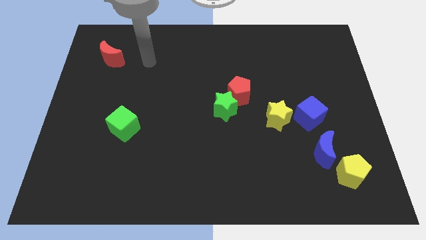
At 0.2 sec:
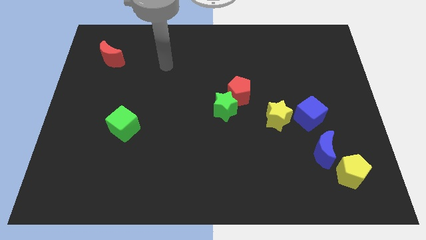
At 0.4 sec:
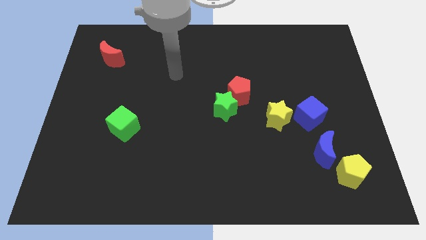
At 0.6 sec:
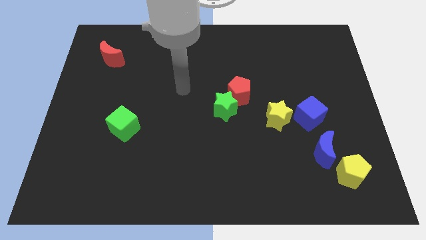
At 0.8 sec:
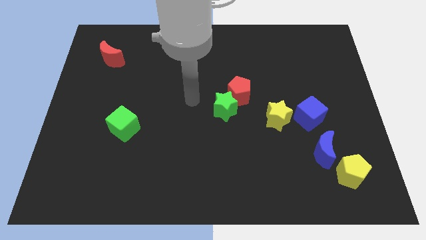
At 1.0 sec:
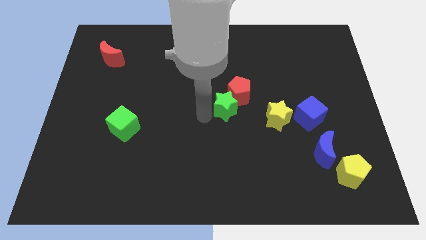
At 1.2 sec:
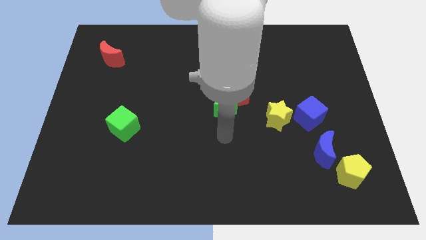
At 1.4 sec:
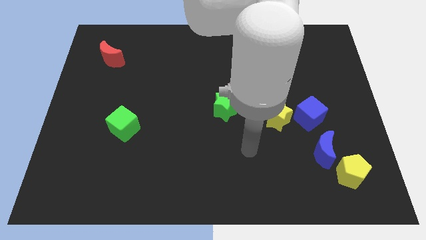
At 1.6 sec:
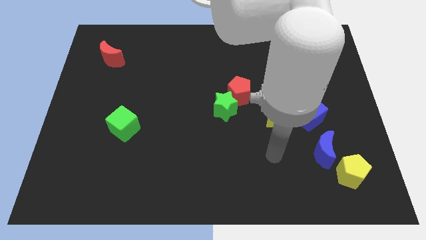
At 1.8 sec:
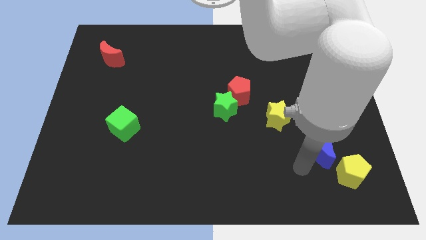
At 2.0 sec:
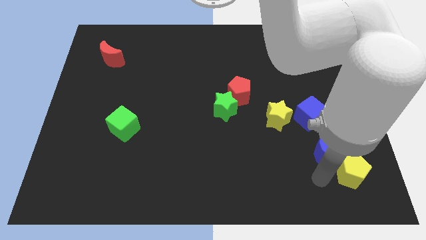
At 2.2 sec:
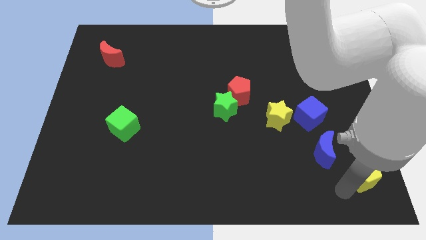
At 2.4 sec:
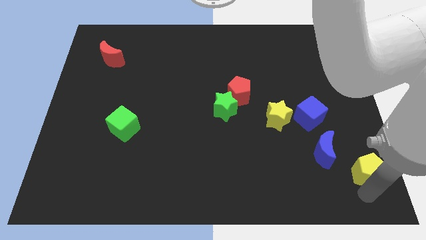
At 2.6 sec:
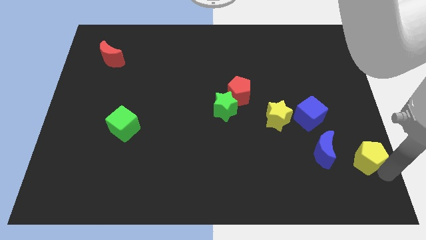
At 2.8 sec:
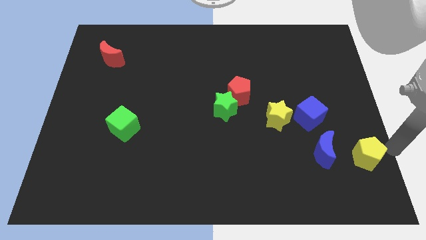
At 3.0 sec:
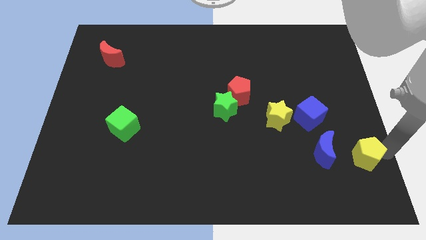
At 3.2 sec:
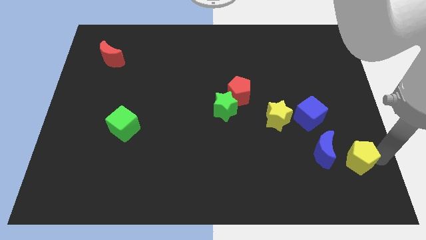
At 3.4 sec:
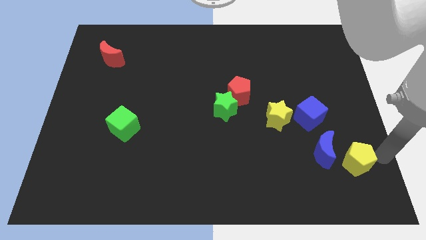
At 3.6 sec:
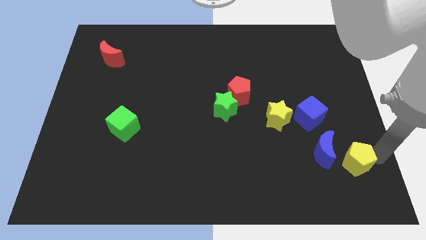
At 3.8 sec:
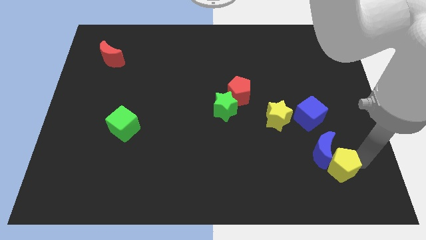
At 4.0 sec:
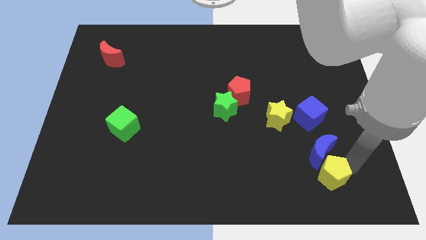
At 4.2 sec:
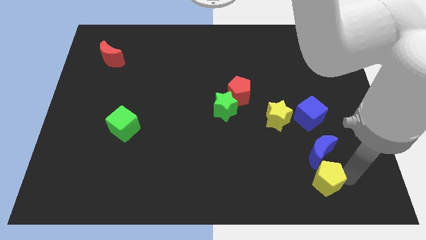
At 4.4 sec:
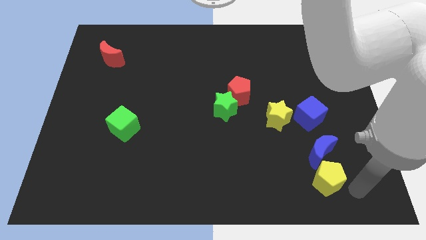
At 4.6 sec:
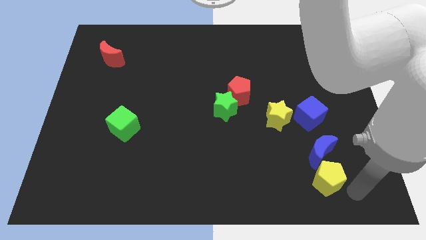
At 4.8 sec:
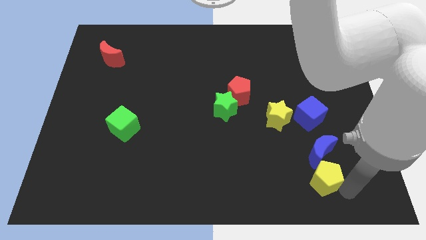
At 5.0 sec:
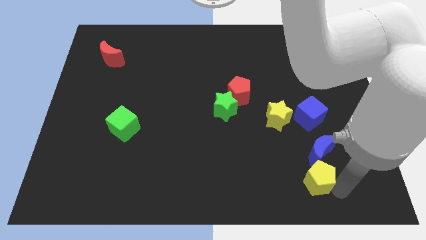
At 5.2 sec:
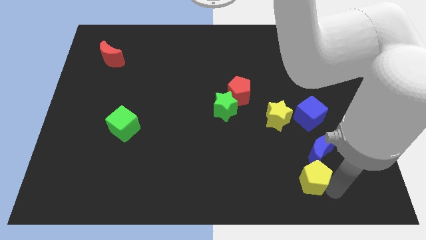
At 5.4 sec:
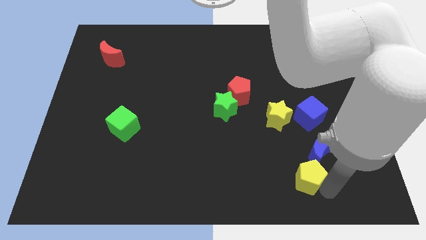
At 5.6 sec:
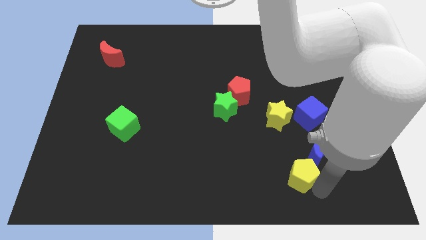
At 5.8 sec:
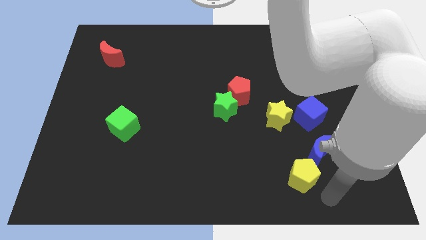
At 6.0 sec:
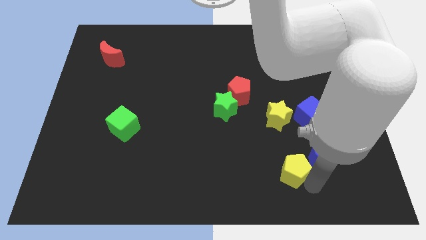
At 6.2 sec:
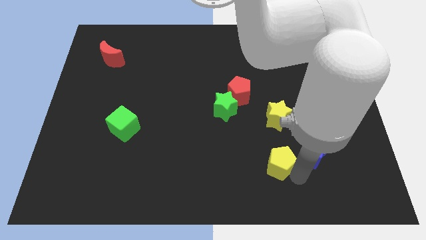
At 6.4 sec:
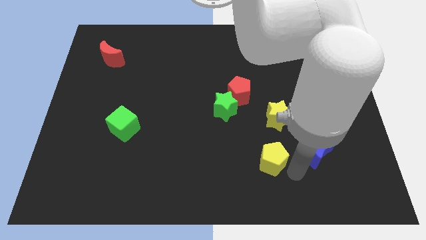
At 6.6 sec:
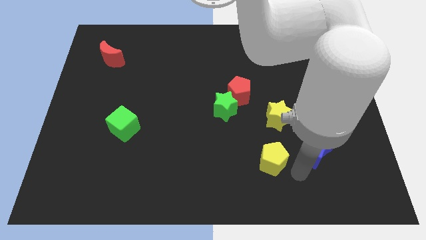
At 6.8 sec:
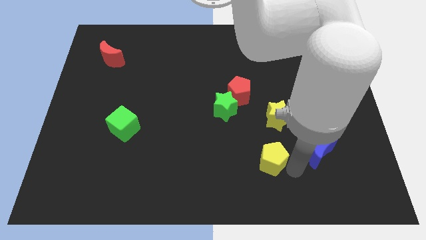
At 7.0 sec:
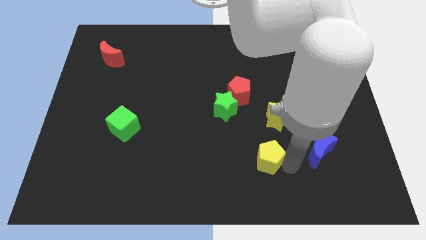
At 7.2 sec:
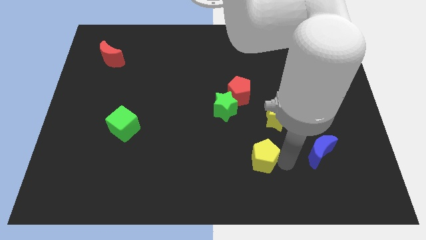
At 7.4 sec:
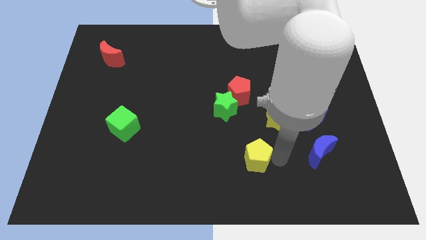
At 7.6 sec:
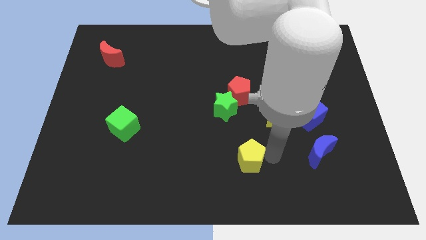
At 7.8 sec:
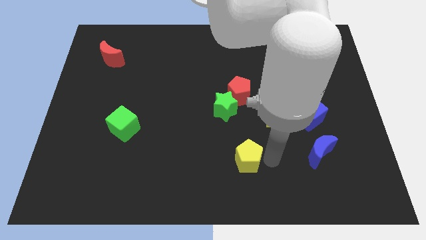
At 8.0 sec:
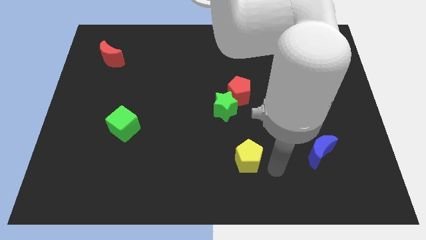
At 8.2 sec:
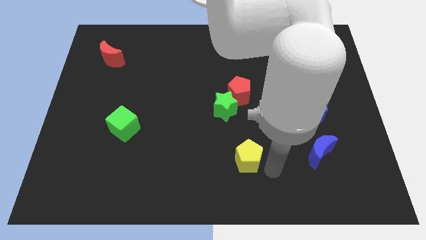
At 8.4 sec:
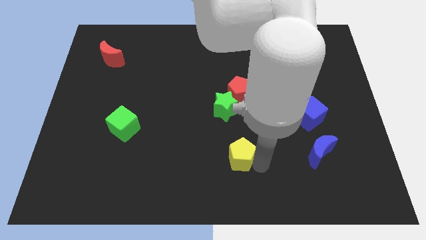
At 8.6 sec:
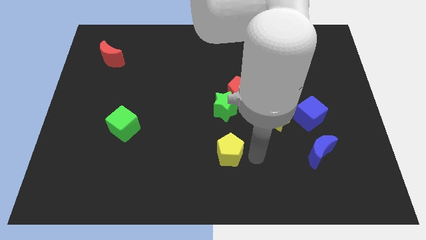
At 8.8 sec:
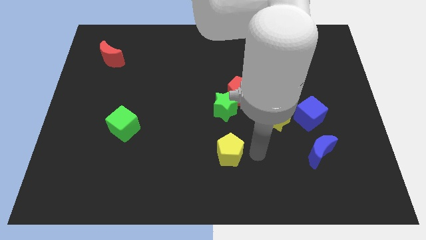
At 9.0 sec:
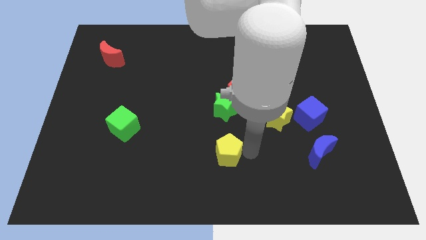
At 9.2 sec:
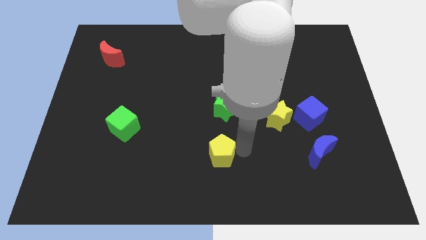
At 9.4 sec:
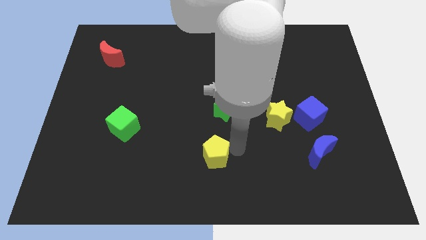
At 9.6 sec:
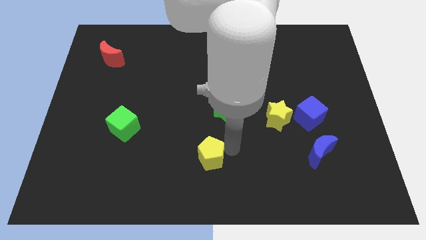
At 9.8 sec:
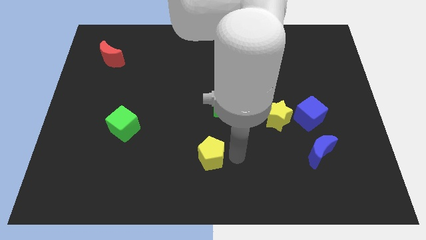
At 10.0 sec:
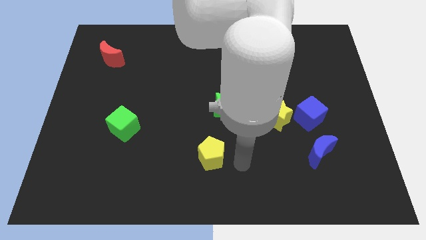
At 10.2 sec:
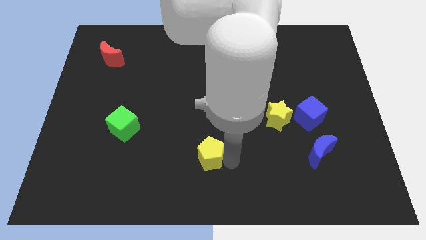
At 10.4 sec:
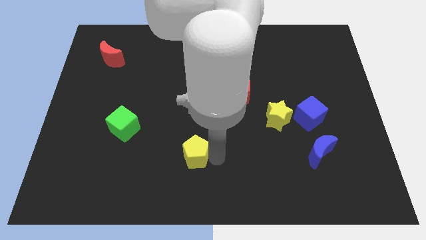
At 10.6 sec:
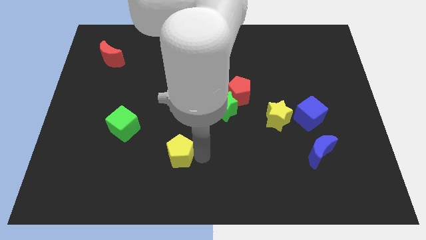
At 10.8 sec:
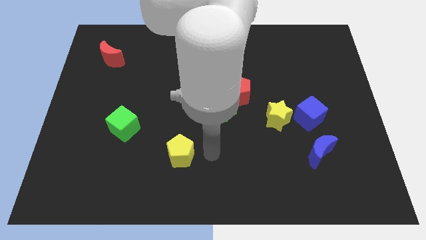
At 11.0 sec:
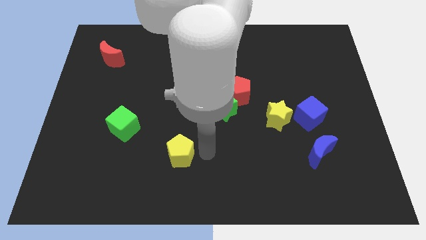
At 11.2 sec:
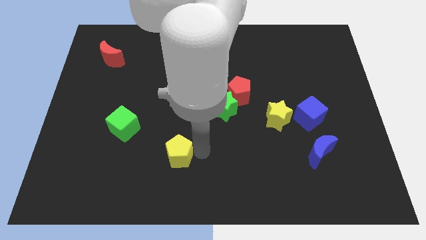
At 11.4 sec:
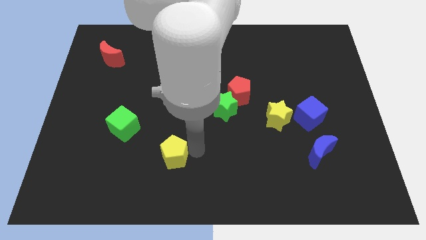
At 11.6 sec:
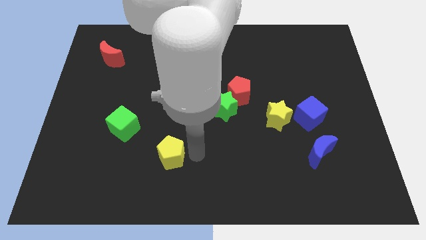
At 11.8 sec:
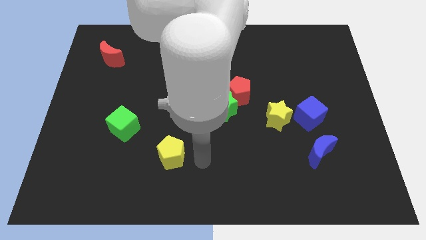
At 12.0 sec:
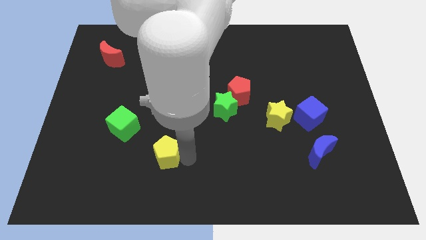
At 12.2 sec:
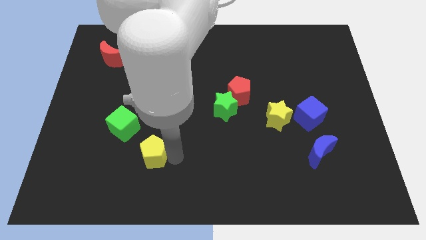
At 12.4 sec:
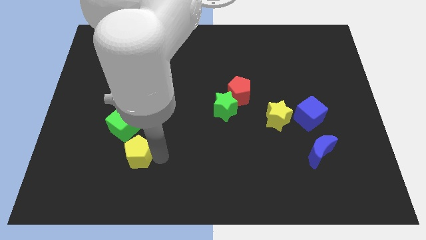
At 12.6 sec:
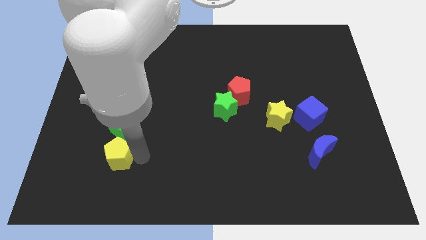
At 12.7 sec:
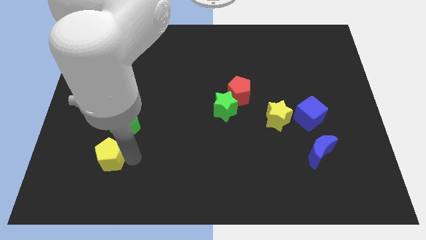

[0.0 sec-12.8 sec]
put the yellow pentagon to the bottom left side of the green cube

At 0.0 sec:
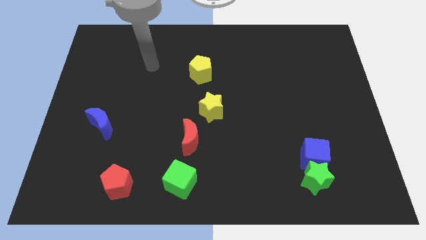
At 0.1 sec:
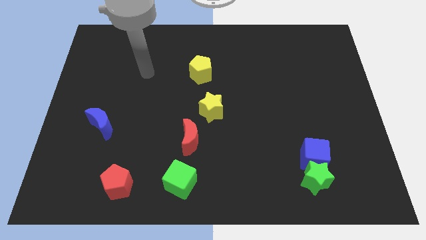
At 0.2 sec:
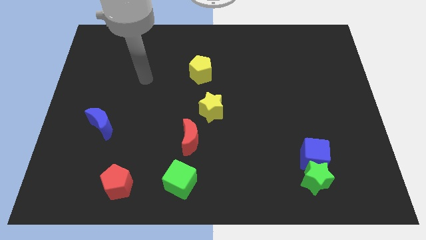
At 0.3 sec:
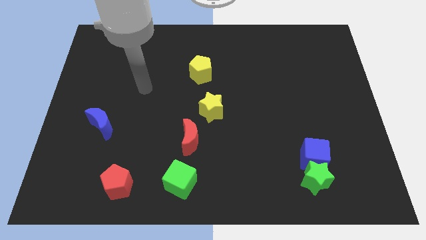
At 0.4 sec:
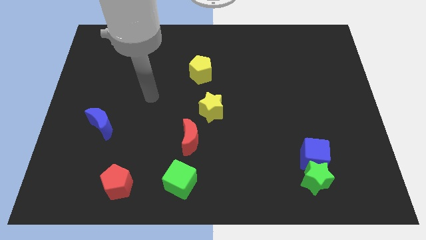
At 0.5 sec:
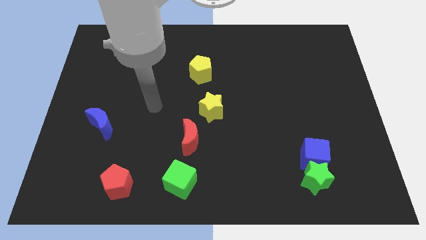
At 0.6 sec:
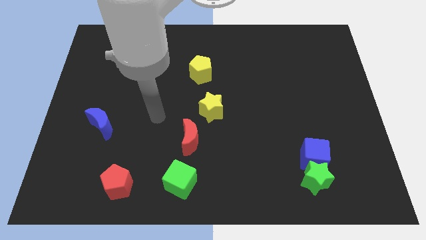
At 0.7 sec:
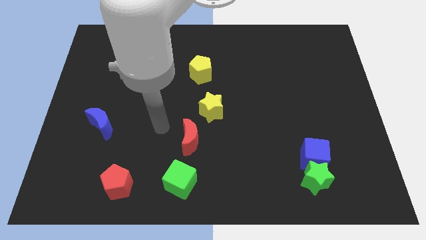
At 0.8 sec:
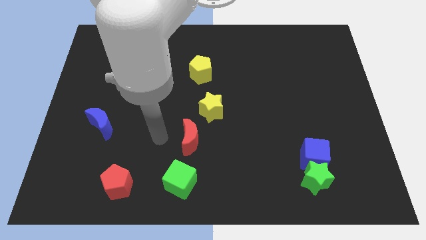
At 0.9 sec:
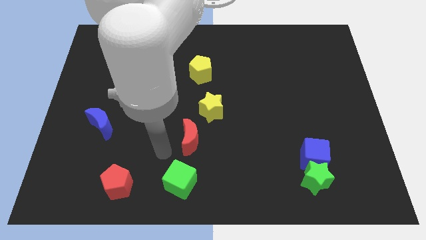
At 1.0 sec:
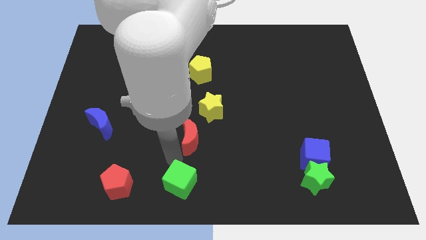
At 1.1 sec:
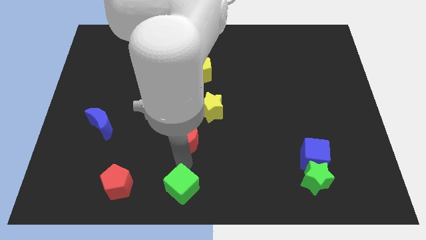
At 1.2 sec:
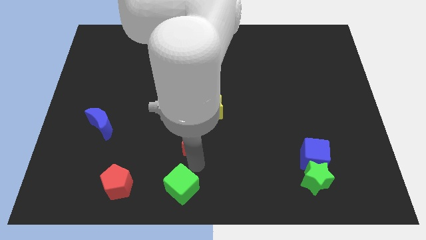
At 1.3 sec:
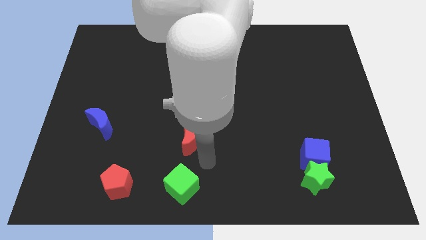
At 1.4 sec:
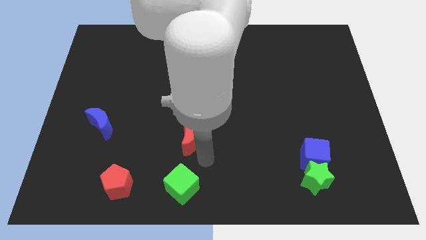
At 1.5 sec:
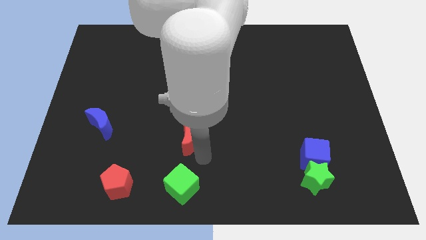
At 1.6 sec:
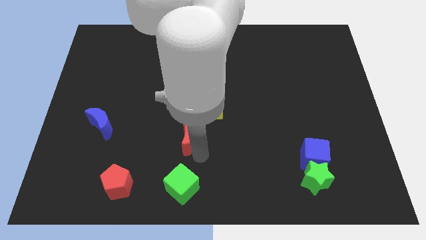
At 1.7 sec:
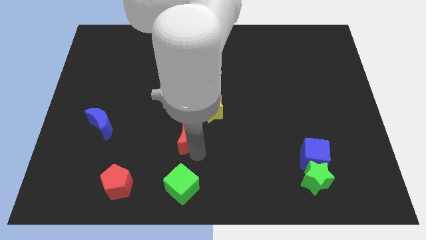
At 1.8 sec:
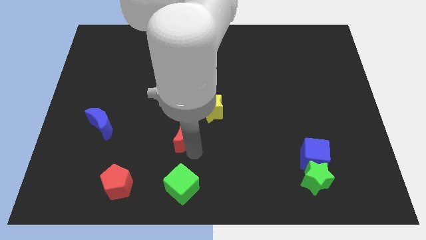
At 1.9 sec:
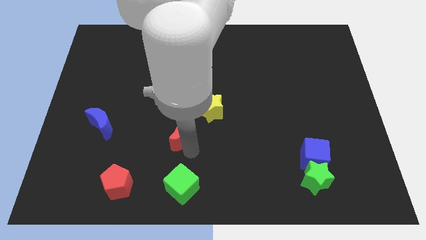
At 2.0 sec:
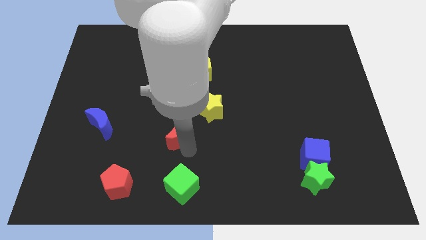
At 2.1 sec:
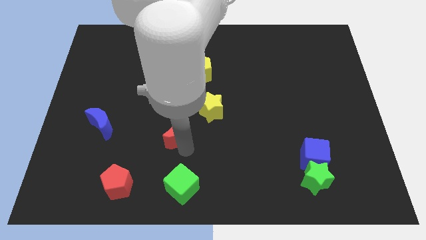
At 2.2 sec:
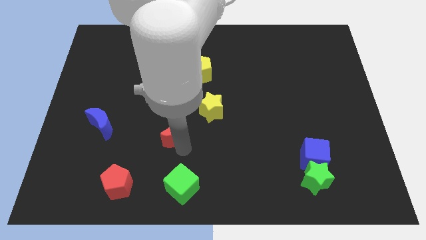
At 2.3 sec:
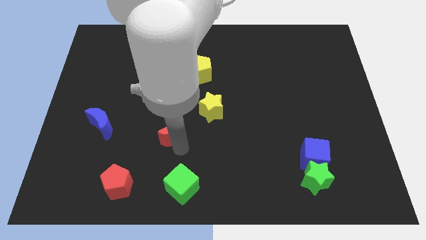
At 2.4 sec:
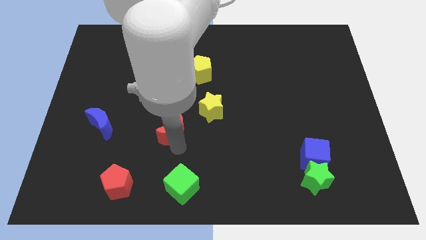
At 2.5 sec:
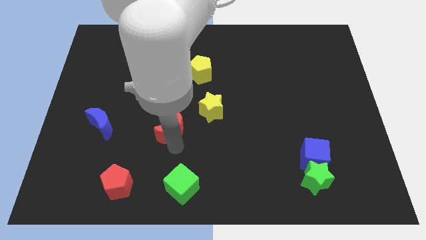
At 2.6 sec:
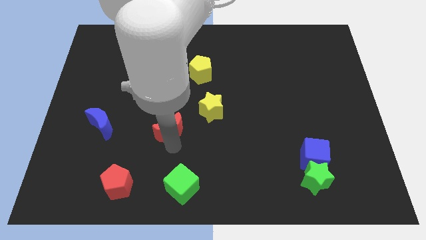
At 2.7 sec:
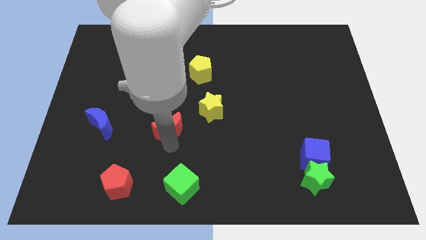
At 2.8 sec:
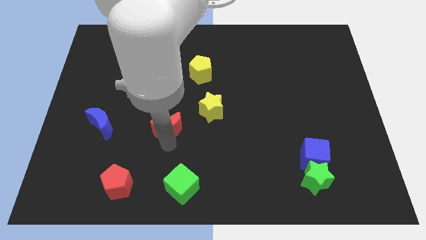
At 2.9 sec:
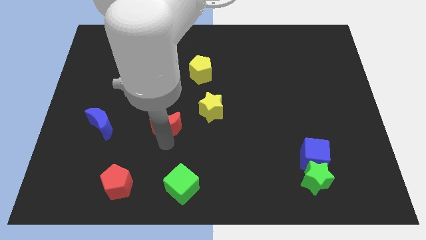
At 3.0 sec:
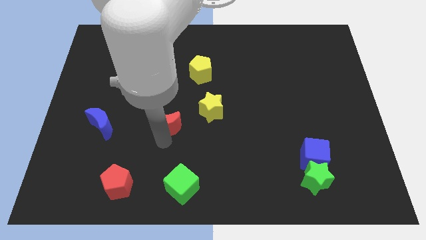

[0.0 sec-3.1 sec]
put the red moon to the left of the yellow star
